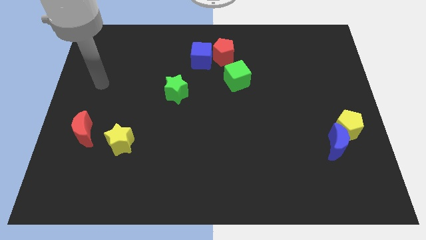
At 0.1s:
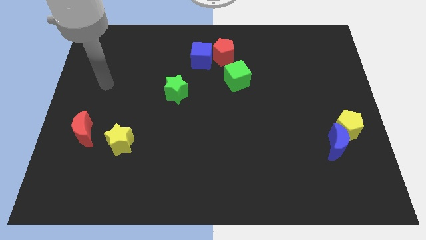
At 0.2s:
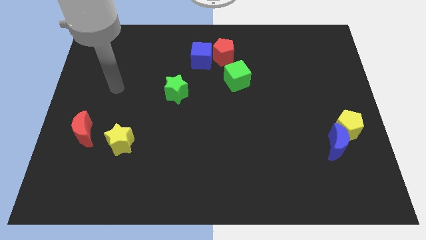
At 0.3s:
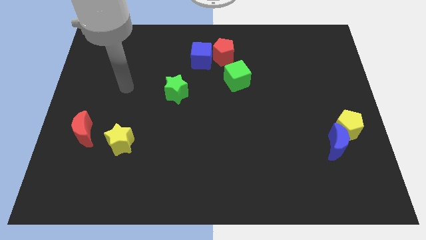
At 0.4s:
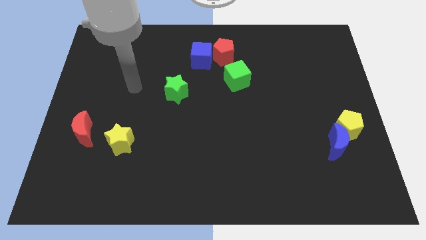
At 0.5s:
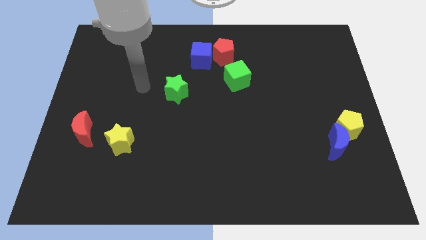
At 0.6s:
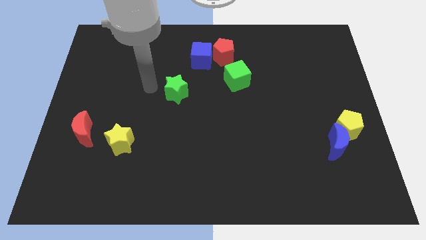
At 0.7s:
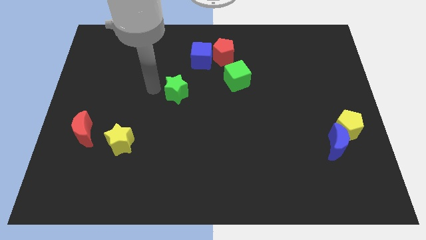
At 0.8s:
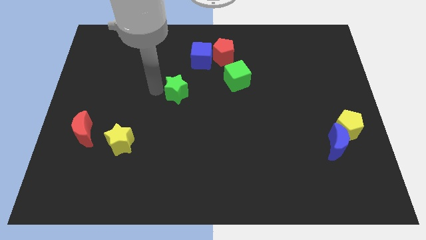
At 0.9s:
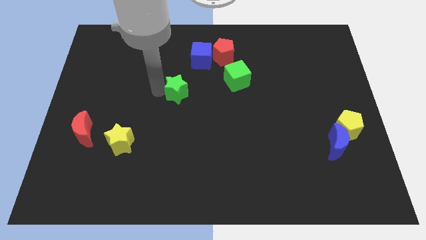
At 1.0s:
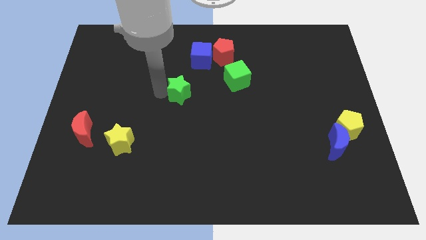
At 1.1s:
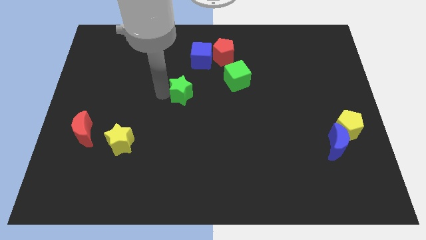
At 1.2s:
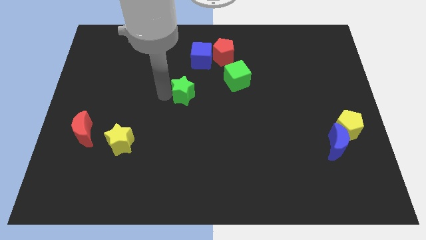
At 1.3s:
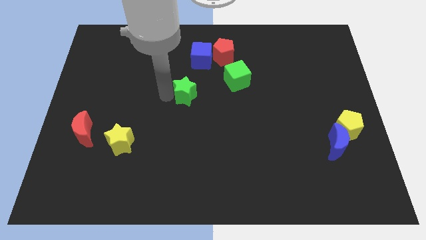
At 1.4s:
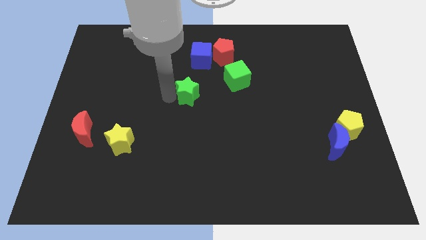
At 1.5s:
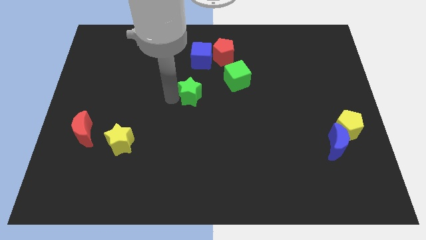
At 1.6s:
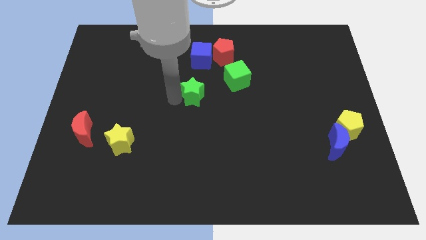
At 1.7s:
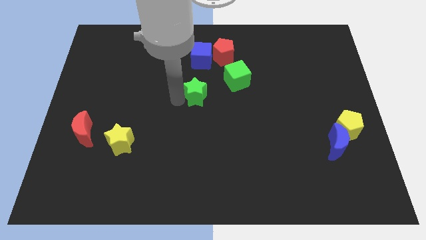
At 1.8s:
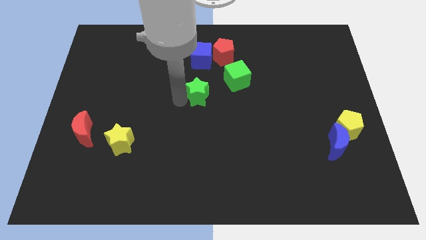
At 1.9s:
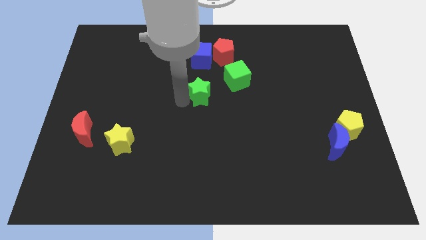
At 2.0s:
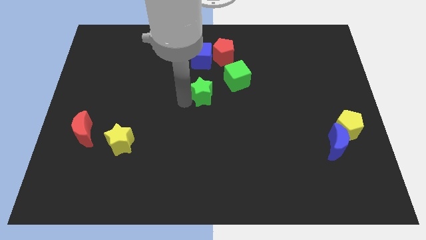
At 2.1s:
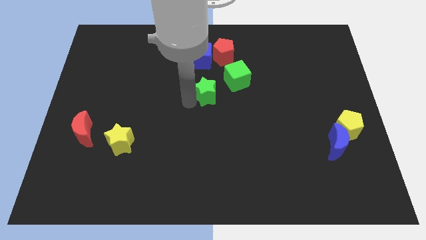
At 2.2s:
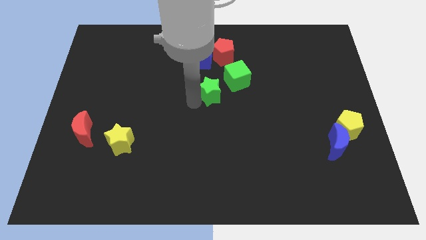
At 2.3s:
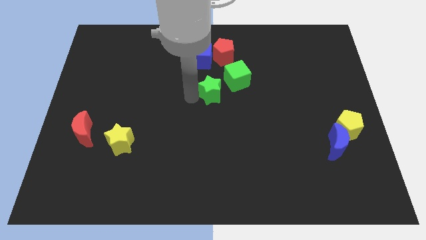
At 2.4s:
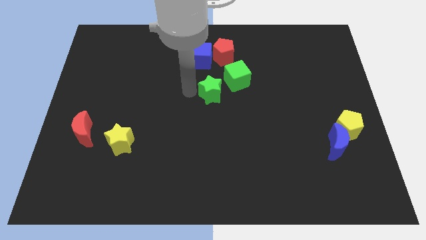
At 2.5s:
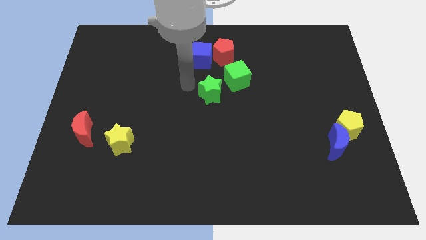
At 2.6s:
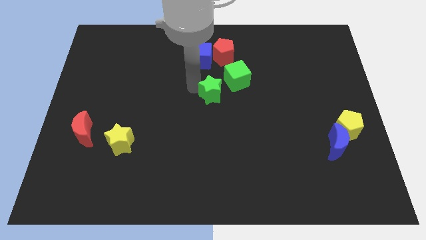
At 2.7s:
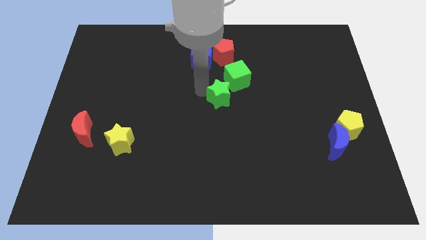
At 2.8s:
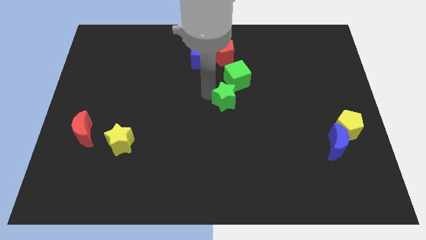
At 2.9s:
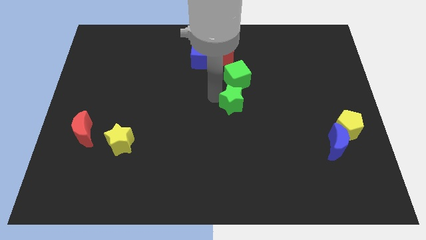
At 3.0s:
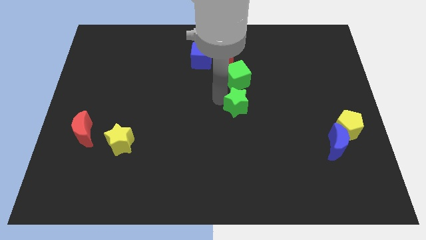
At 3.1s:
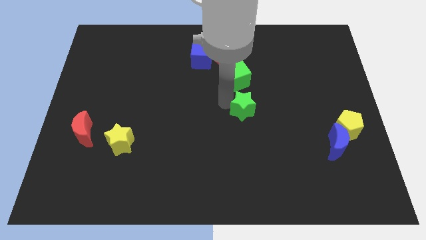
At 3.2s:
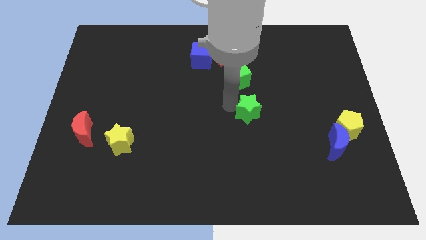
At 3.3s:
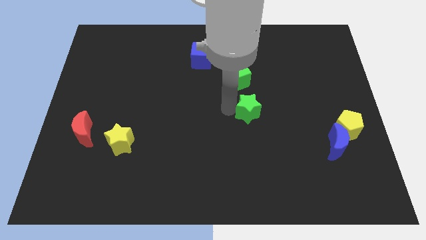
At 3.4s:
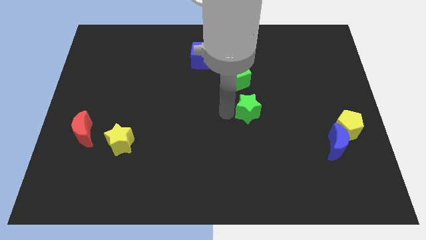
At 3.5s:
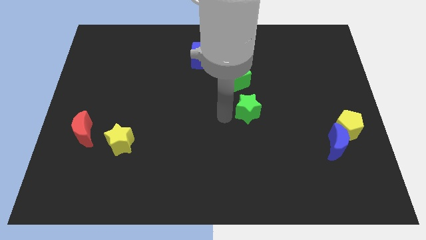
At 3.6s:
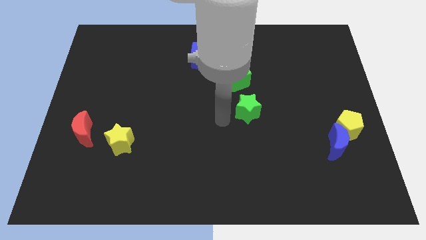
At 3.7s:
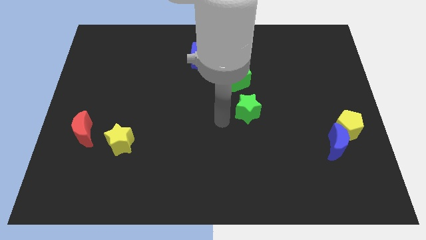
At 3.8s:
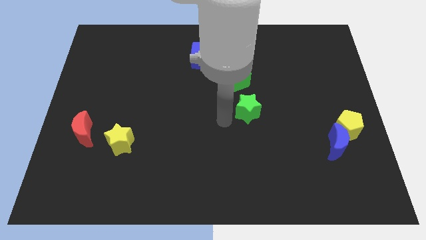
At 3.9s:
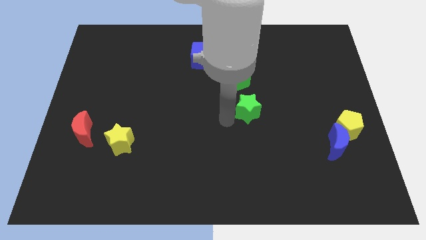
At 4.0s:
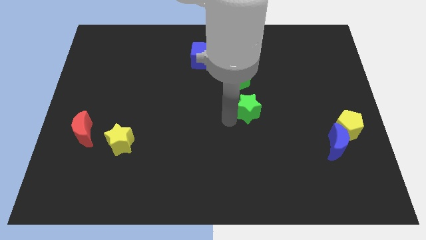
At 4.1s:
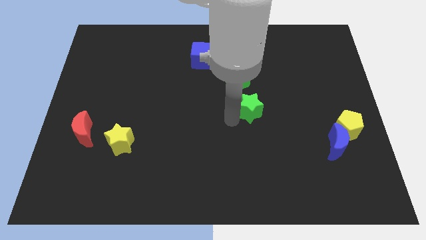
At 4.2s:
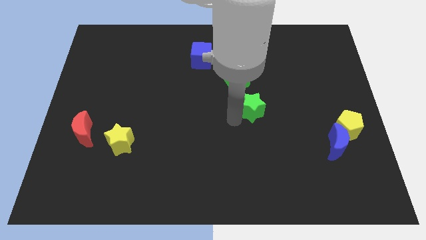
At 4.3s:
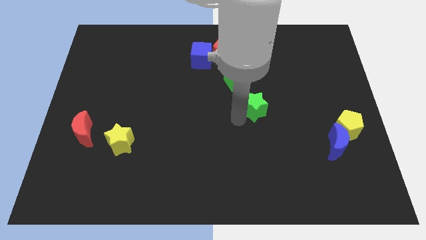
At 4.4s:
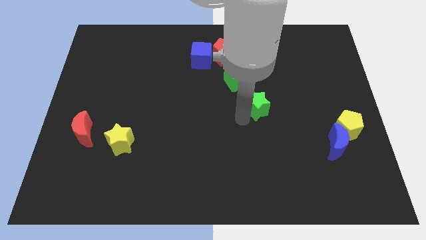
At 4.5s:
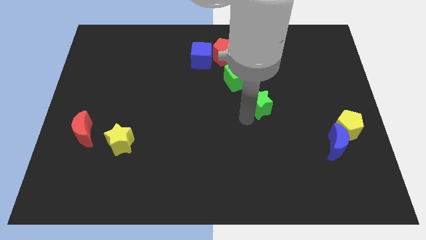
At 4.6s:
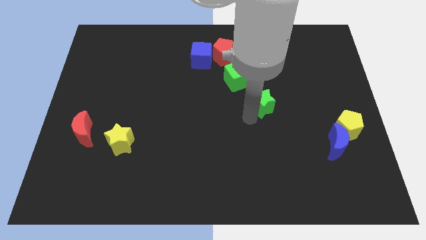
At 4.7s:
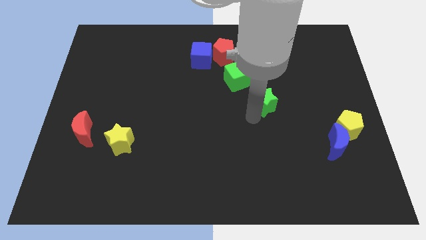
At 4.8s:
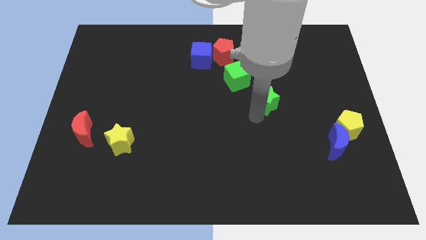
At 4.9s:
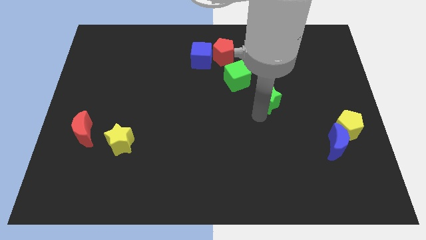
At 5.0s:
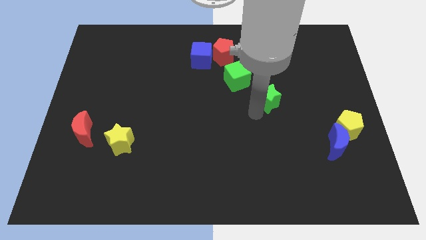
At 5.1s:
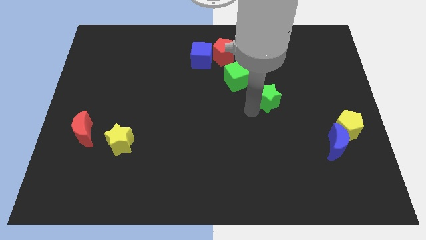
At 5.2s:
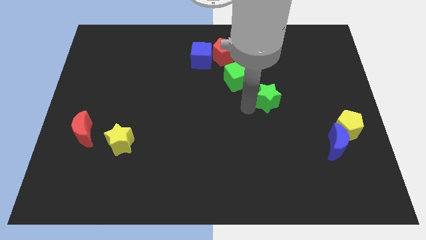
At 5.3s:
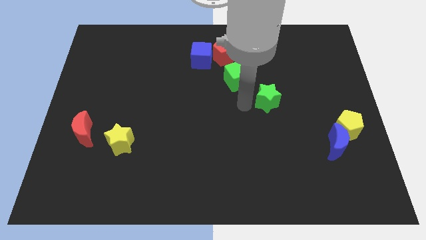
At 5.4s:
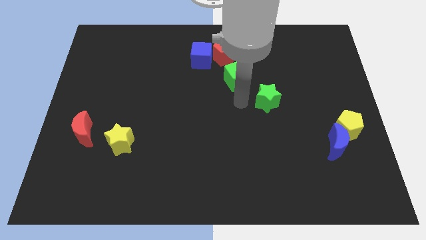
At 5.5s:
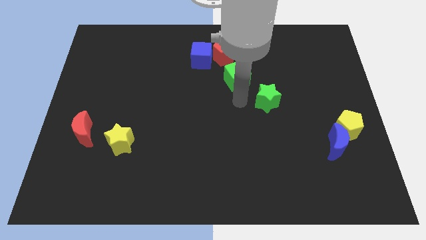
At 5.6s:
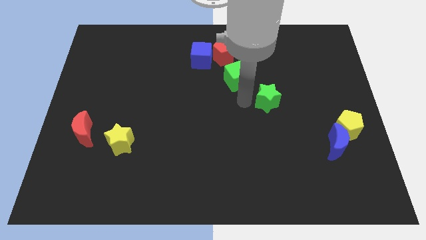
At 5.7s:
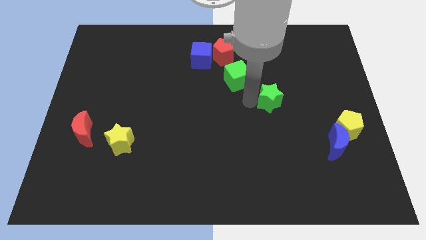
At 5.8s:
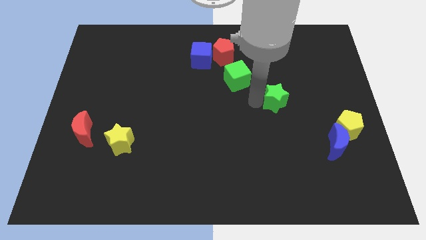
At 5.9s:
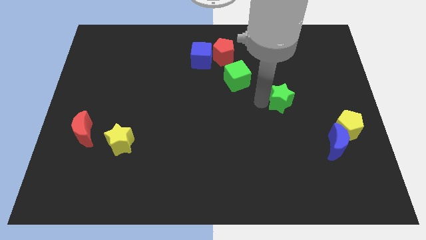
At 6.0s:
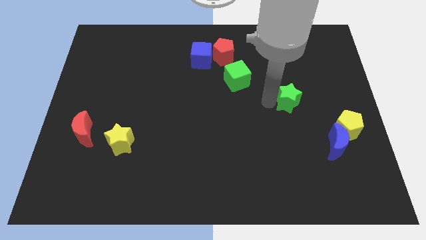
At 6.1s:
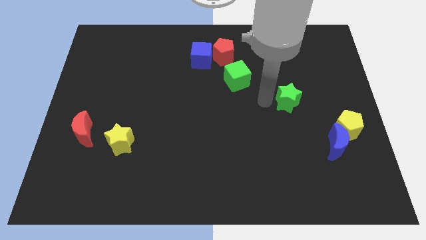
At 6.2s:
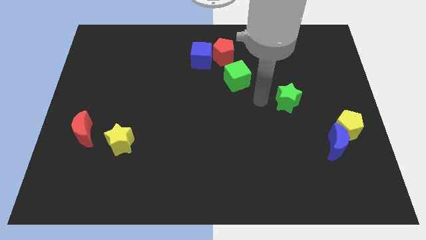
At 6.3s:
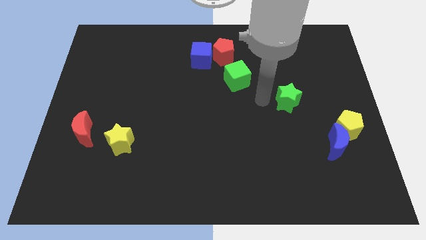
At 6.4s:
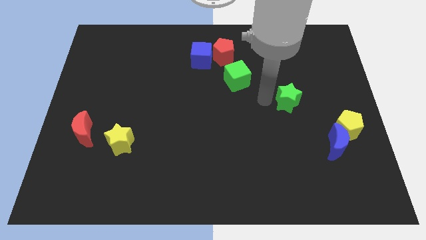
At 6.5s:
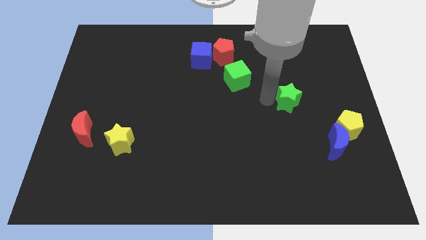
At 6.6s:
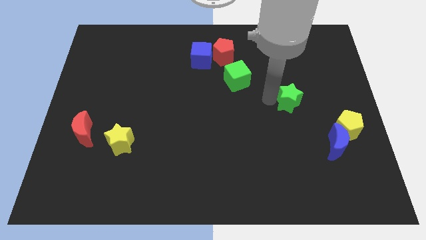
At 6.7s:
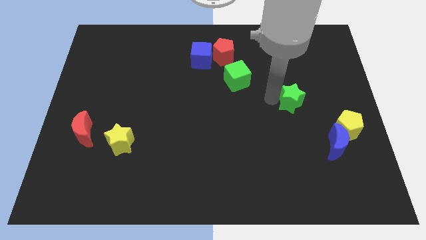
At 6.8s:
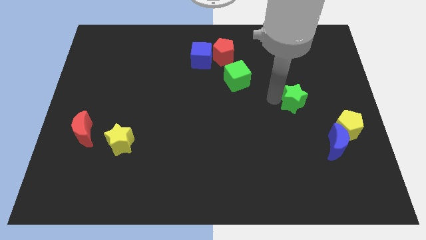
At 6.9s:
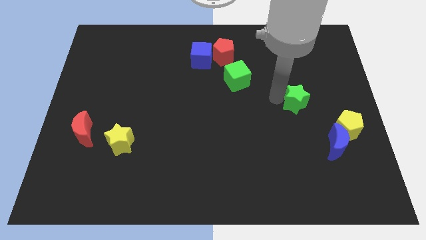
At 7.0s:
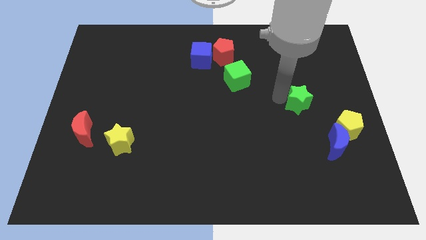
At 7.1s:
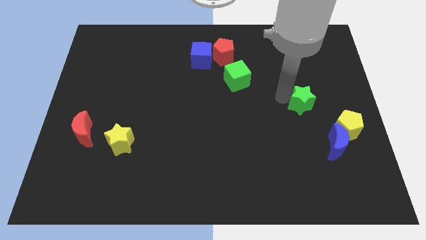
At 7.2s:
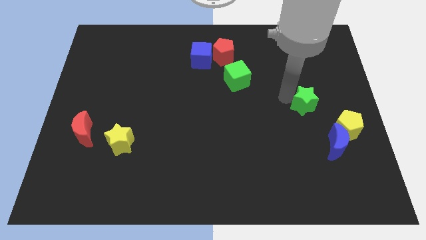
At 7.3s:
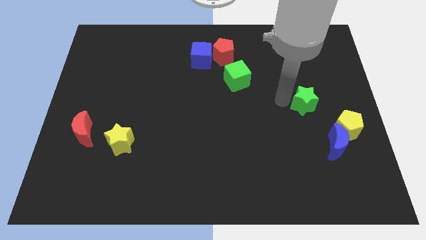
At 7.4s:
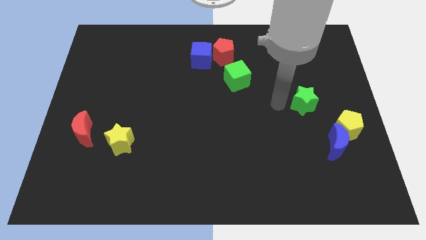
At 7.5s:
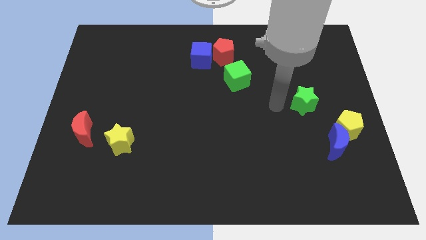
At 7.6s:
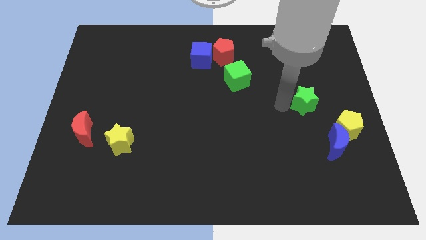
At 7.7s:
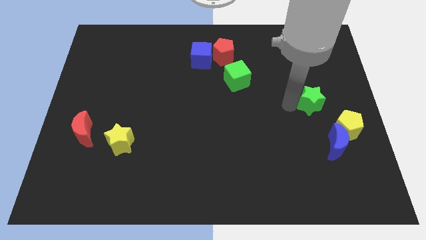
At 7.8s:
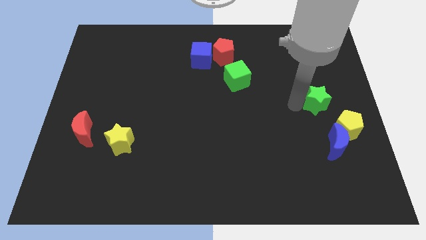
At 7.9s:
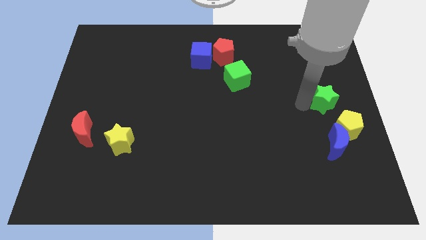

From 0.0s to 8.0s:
put the green star to the right side of the board
